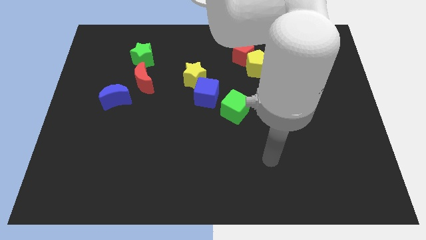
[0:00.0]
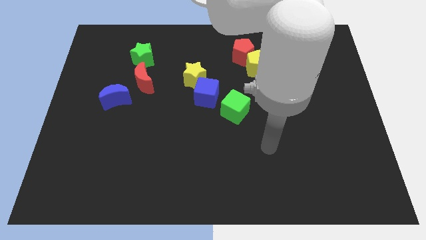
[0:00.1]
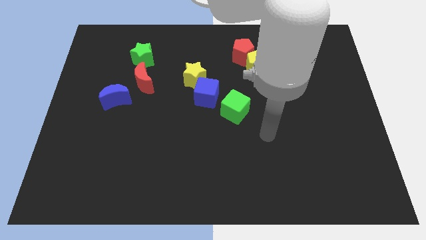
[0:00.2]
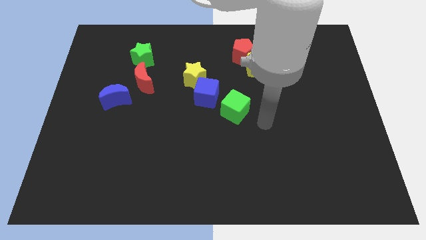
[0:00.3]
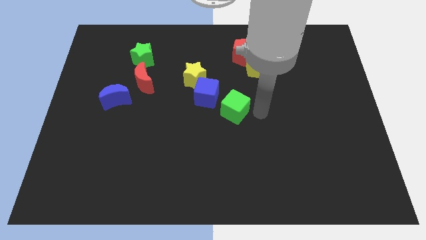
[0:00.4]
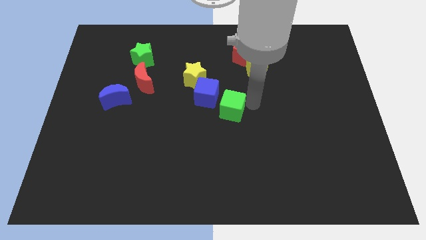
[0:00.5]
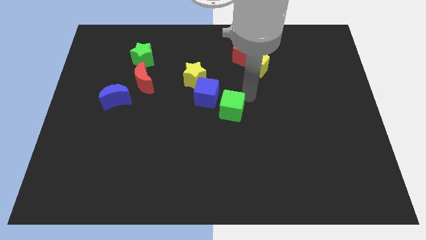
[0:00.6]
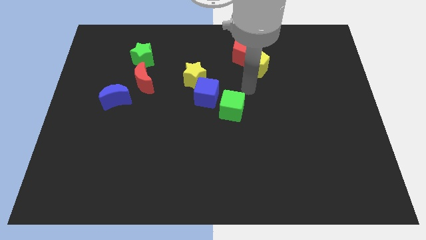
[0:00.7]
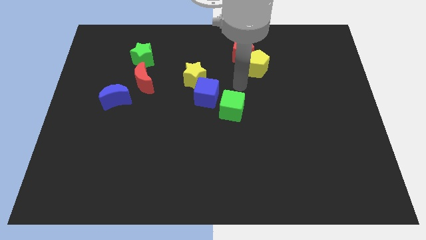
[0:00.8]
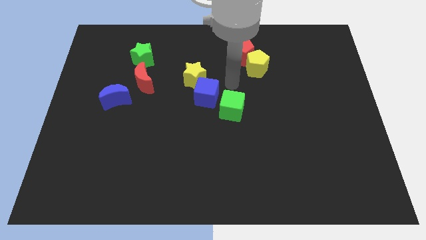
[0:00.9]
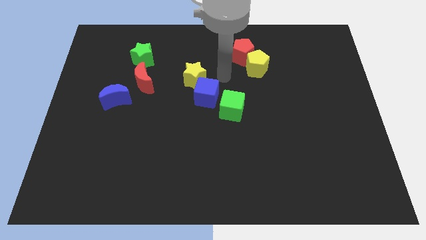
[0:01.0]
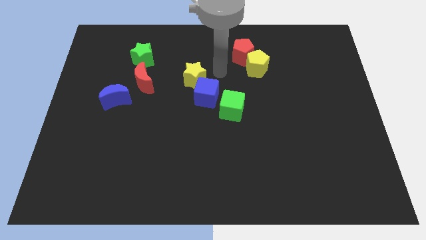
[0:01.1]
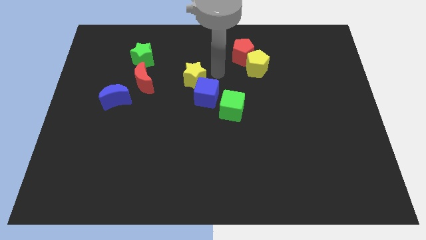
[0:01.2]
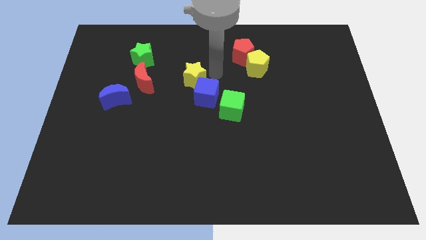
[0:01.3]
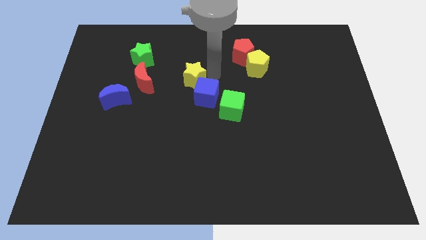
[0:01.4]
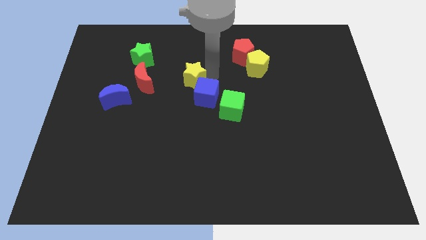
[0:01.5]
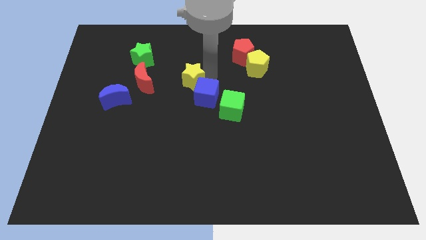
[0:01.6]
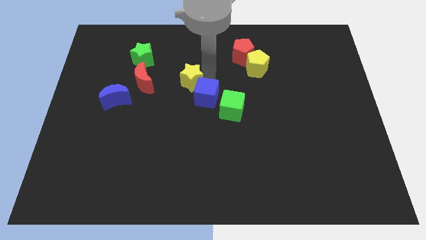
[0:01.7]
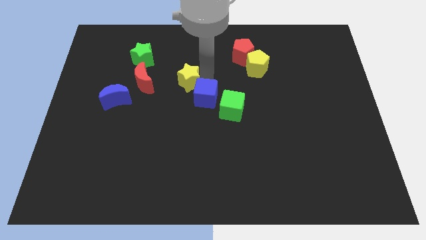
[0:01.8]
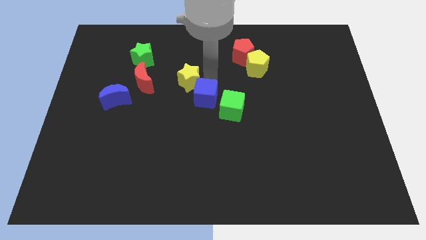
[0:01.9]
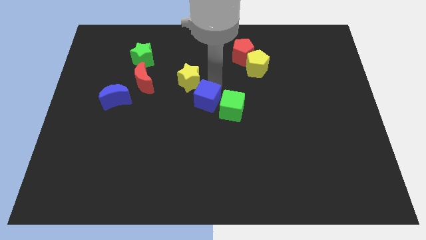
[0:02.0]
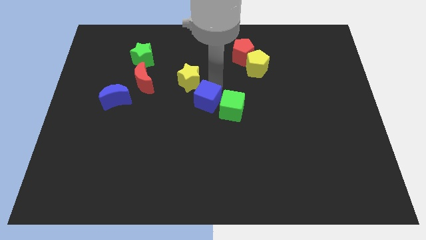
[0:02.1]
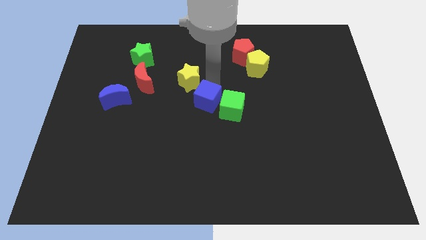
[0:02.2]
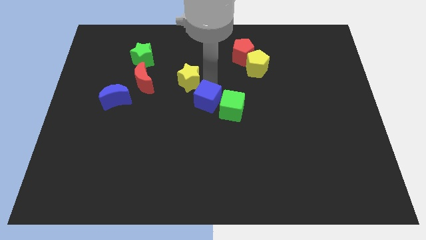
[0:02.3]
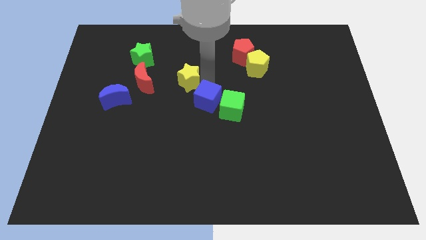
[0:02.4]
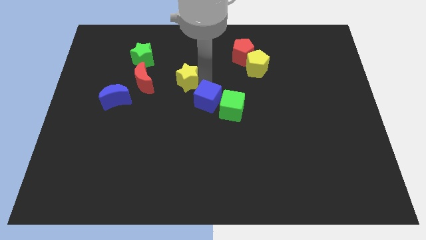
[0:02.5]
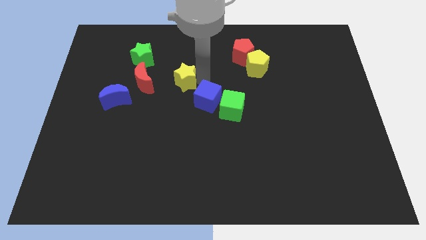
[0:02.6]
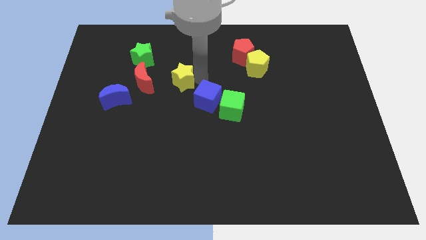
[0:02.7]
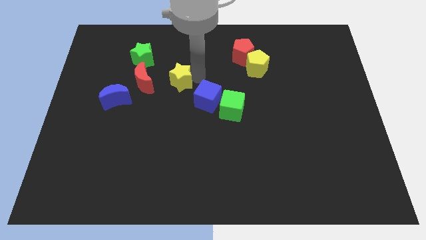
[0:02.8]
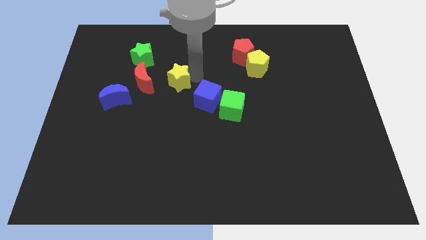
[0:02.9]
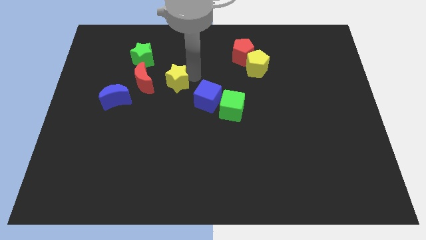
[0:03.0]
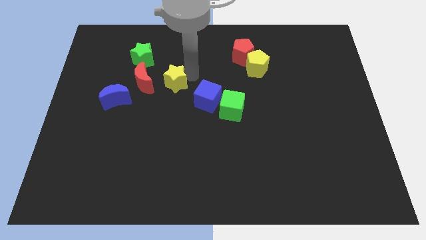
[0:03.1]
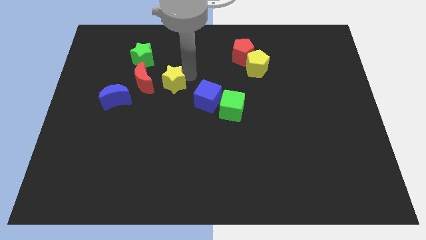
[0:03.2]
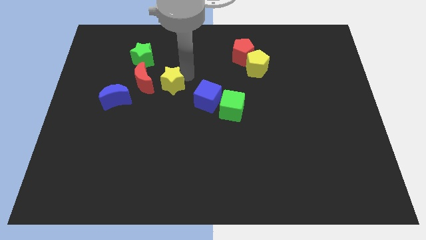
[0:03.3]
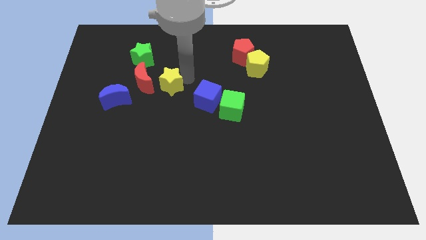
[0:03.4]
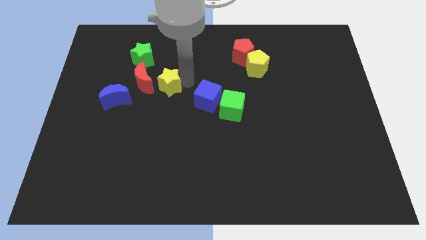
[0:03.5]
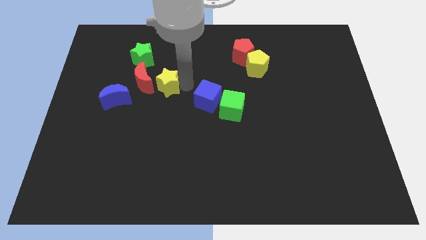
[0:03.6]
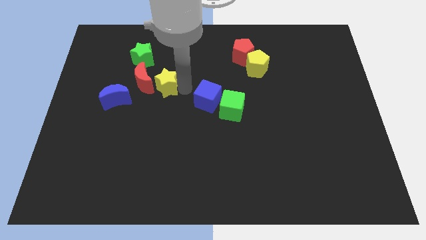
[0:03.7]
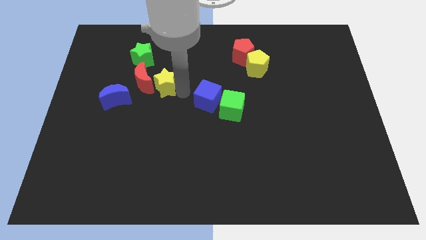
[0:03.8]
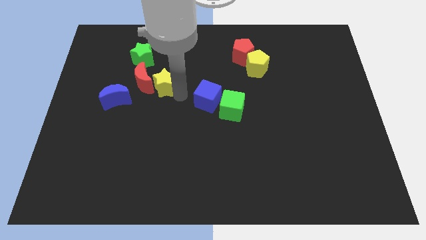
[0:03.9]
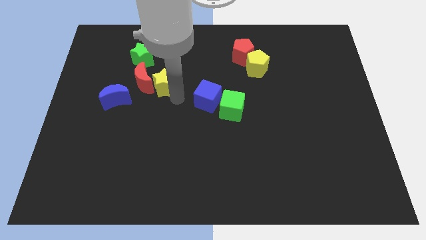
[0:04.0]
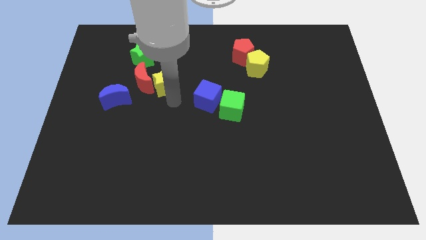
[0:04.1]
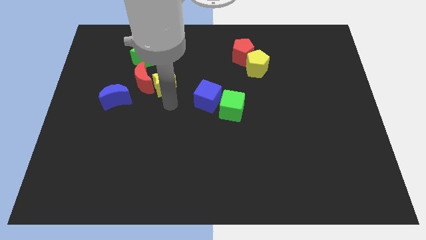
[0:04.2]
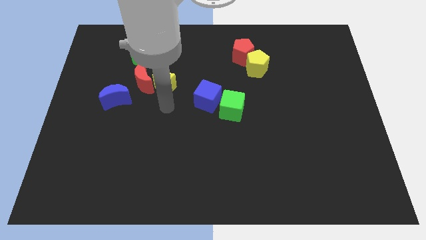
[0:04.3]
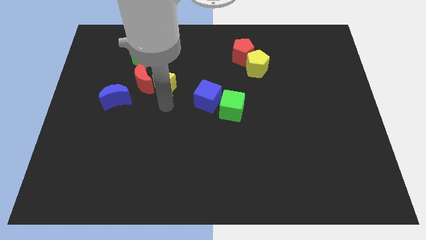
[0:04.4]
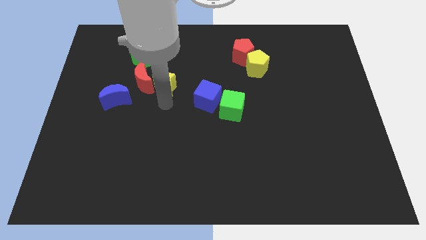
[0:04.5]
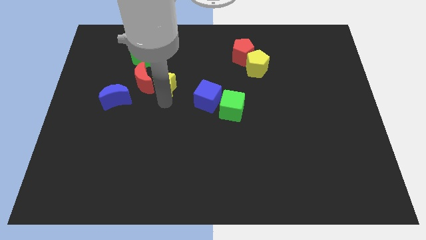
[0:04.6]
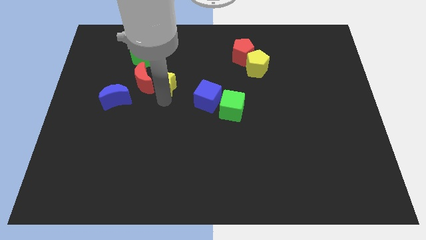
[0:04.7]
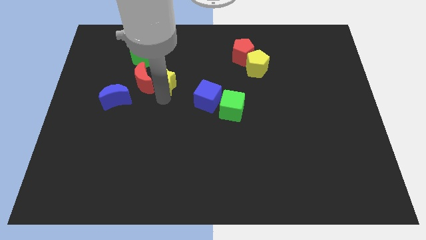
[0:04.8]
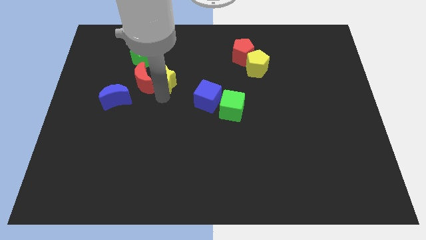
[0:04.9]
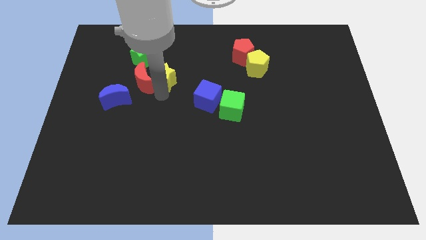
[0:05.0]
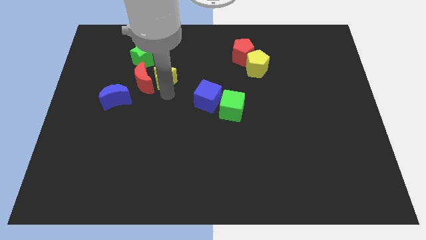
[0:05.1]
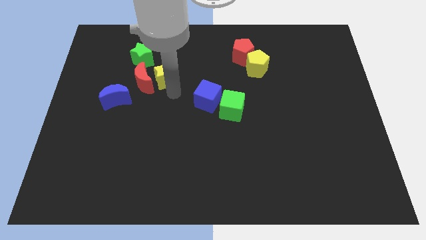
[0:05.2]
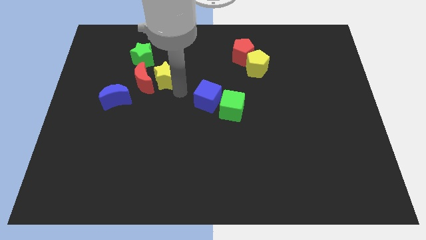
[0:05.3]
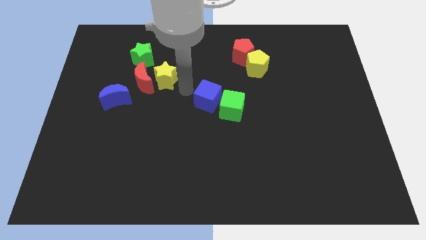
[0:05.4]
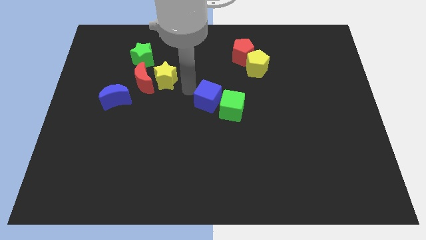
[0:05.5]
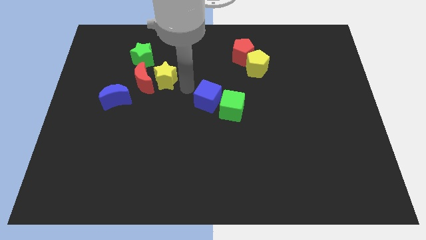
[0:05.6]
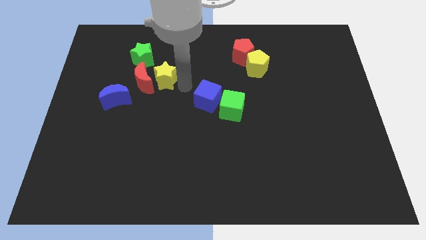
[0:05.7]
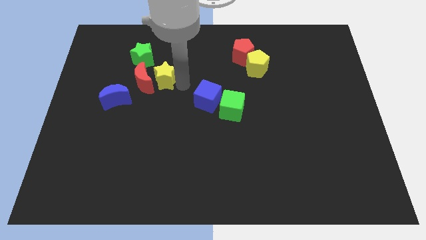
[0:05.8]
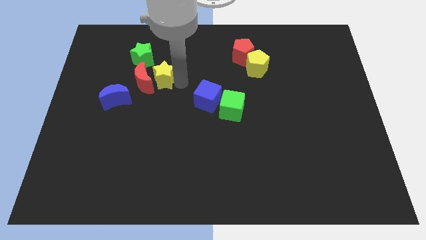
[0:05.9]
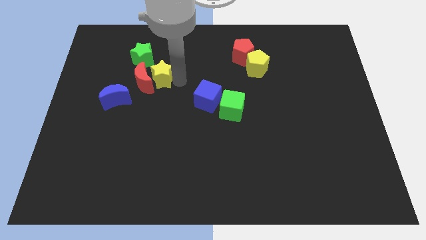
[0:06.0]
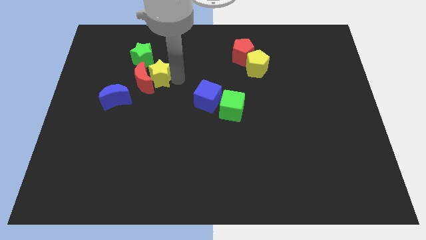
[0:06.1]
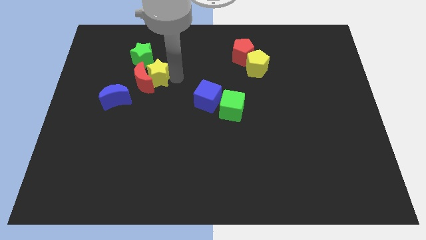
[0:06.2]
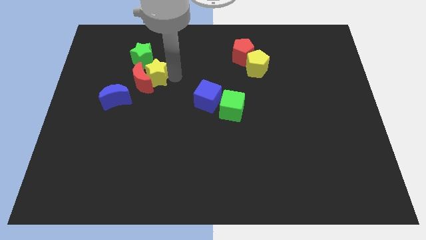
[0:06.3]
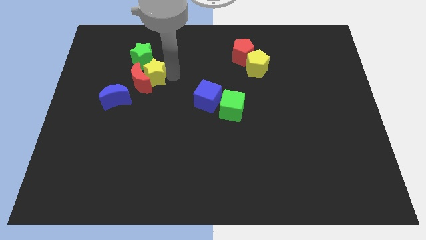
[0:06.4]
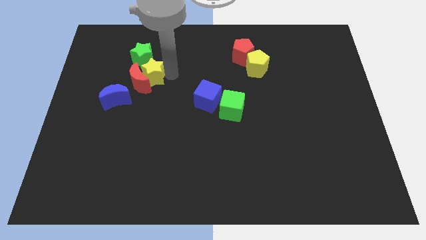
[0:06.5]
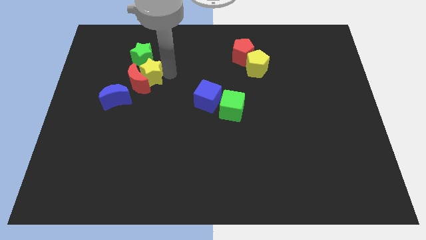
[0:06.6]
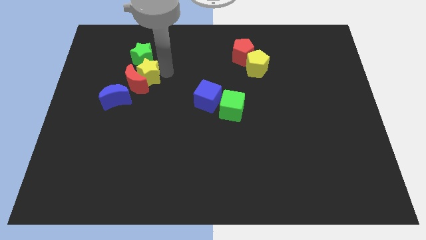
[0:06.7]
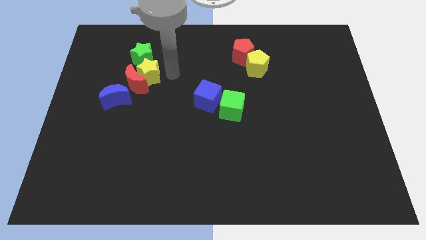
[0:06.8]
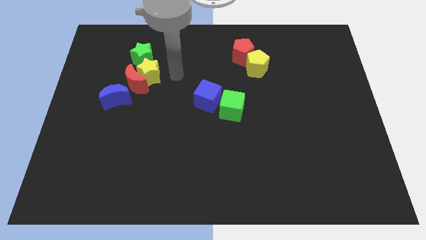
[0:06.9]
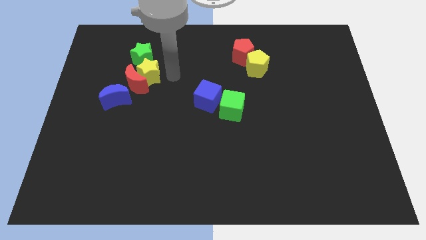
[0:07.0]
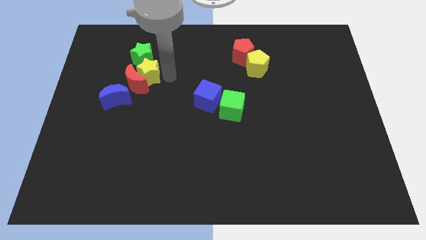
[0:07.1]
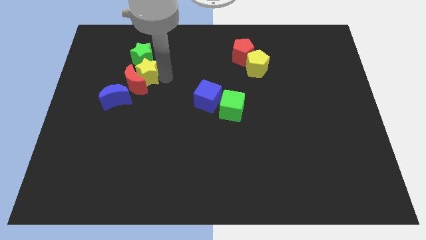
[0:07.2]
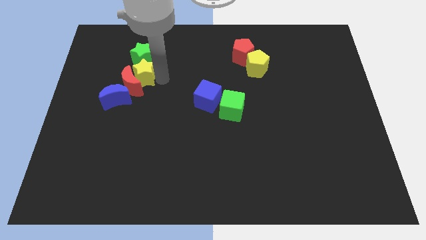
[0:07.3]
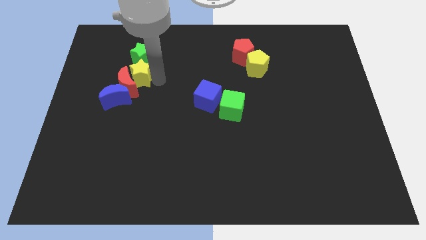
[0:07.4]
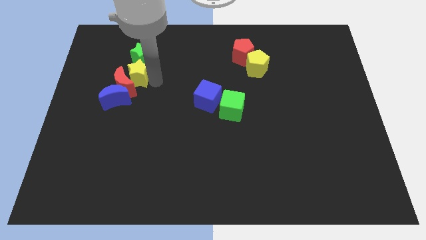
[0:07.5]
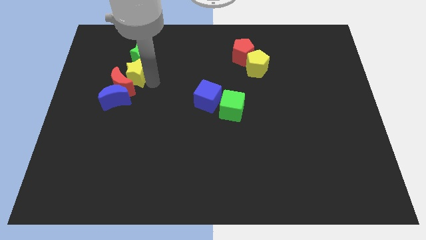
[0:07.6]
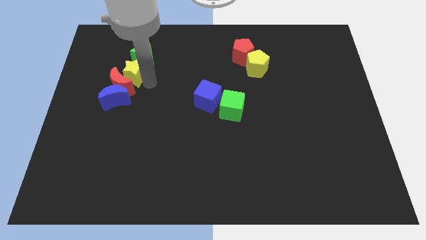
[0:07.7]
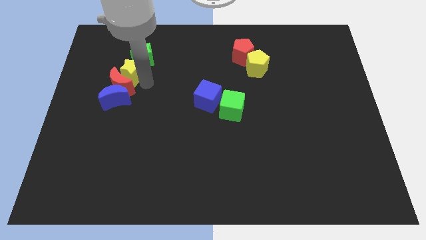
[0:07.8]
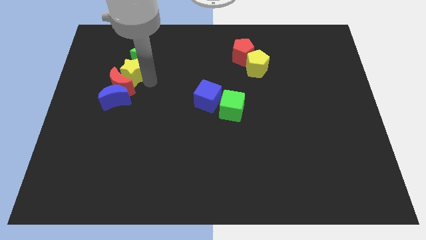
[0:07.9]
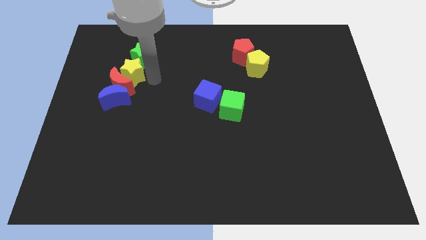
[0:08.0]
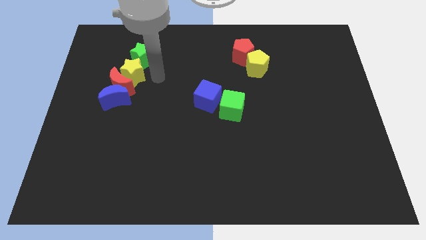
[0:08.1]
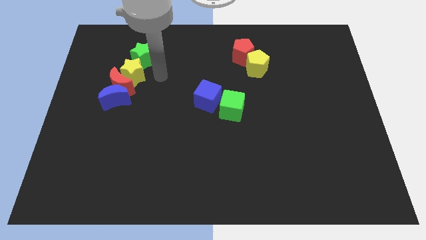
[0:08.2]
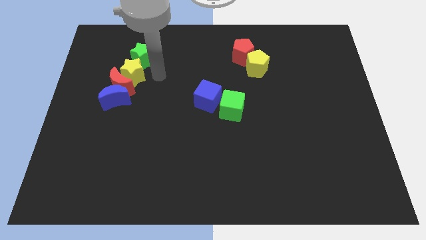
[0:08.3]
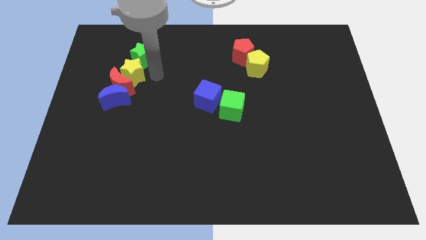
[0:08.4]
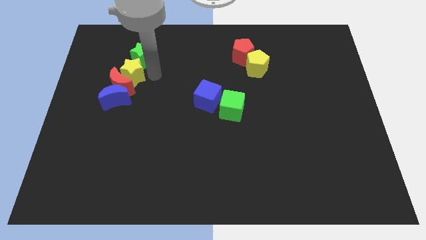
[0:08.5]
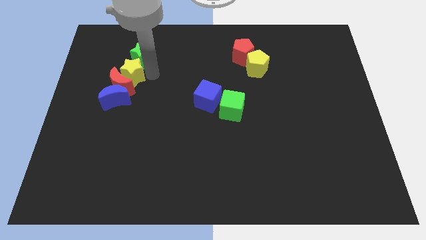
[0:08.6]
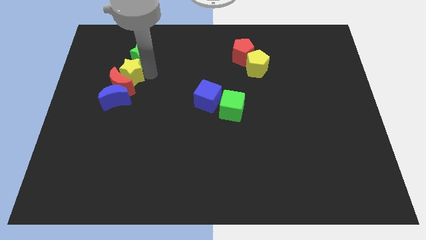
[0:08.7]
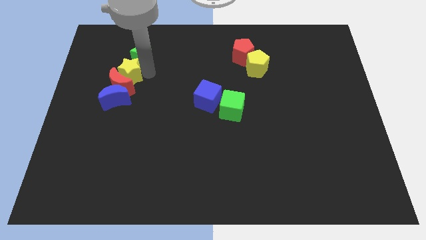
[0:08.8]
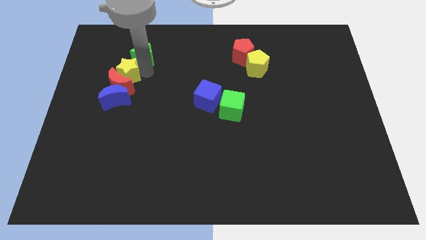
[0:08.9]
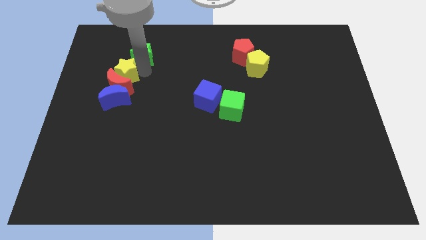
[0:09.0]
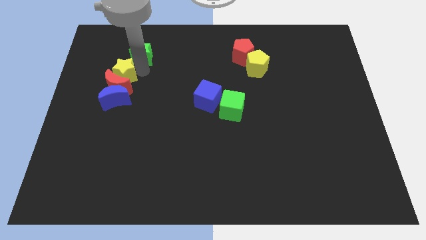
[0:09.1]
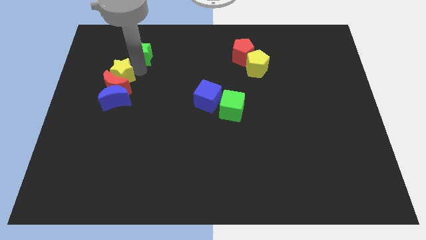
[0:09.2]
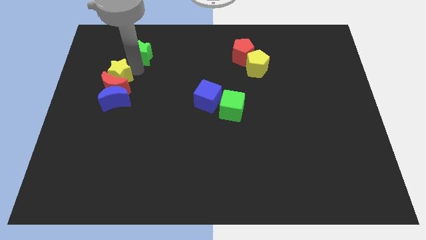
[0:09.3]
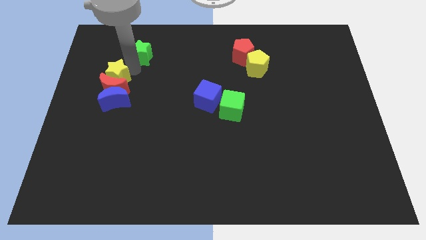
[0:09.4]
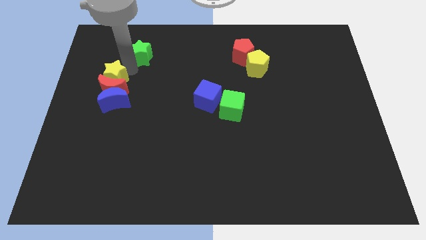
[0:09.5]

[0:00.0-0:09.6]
push the yellow star diagonally up and to the left of the blue moon
